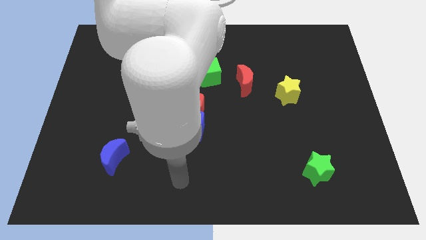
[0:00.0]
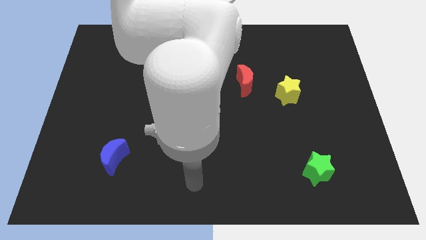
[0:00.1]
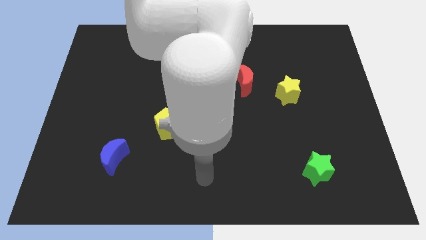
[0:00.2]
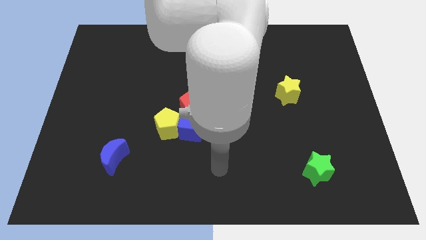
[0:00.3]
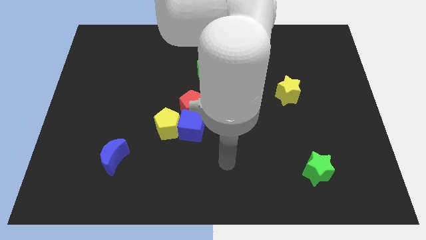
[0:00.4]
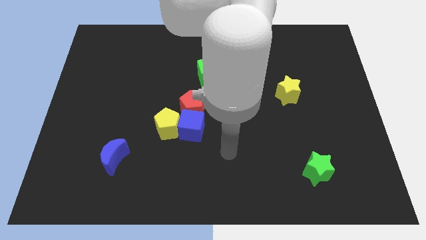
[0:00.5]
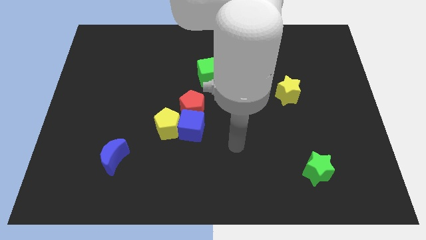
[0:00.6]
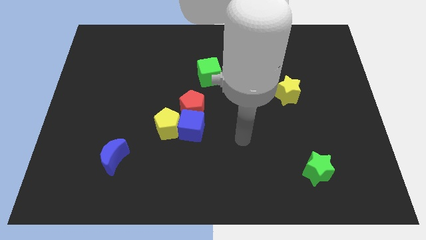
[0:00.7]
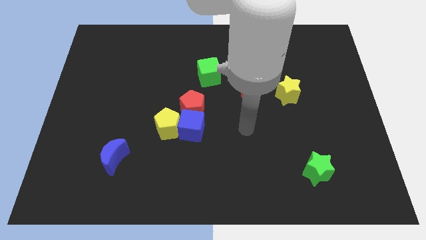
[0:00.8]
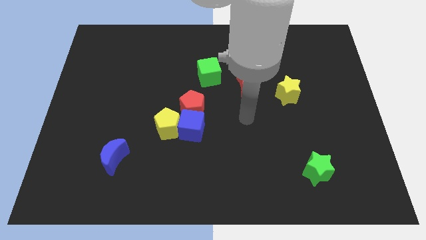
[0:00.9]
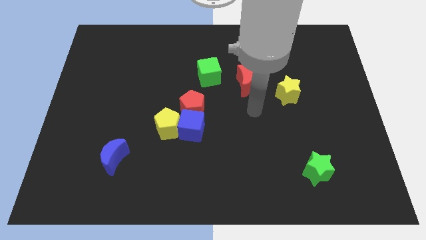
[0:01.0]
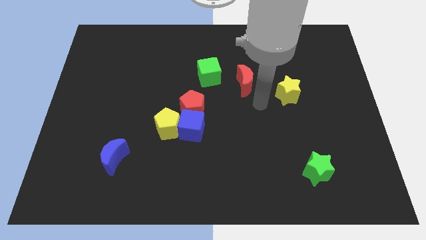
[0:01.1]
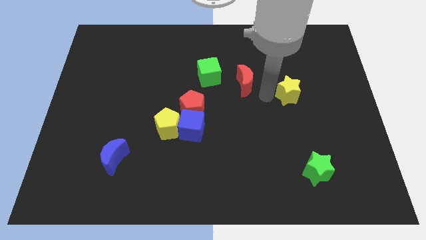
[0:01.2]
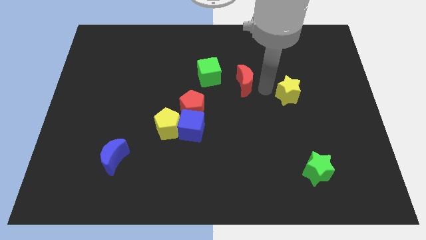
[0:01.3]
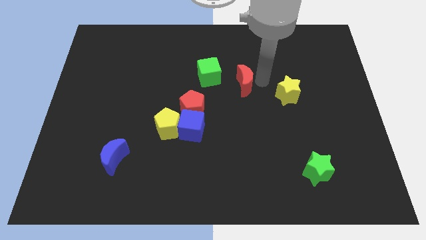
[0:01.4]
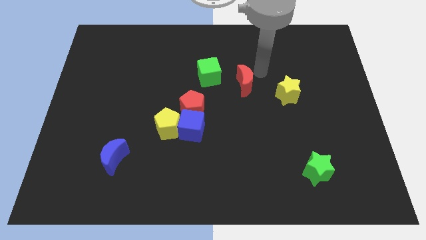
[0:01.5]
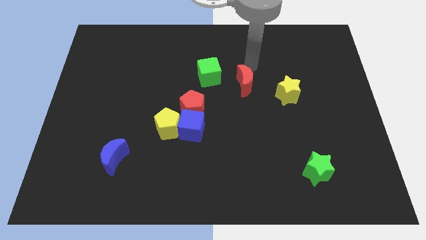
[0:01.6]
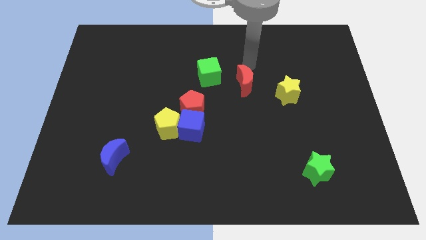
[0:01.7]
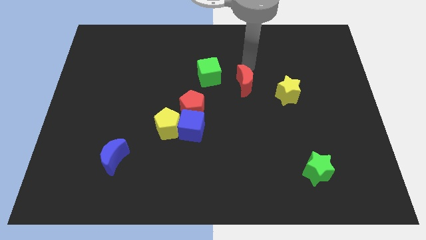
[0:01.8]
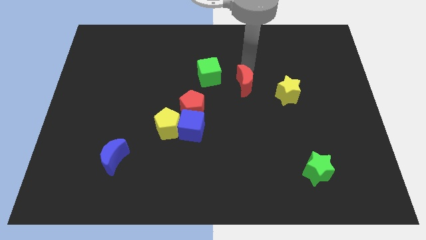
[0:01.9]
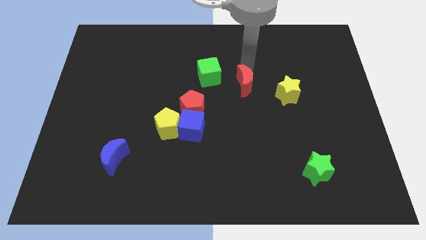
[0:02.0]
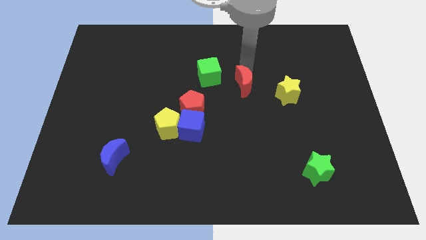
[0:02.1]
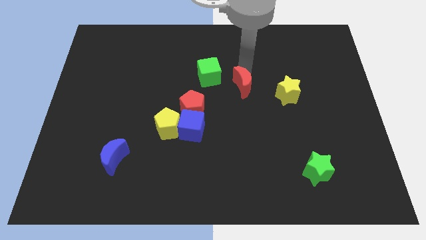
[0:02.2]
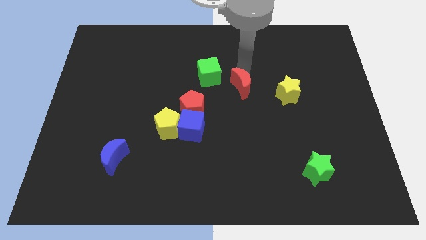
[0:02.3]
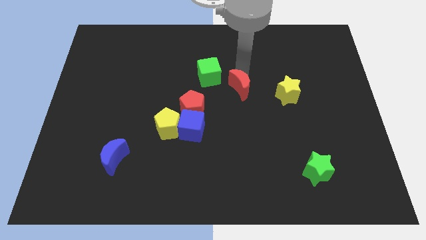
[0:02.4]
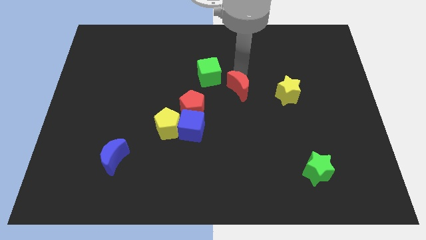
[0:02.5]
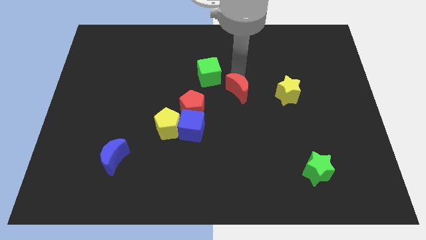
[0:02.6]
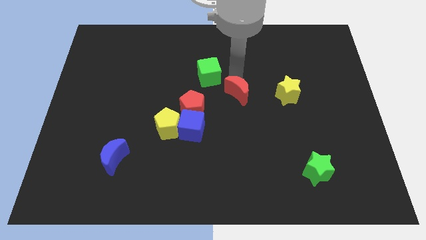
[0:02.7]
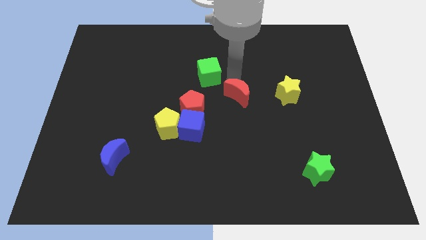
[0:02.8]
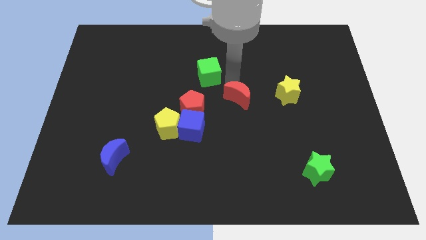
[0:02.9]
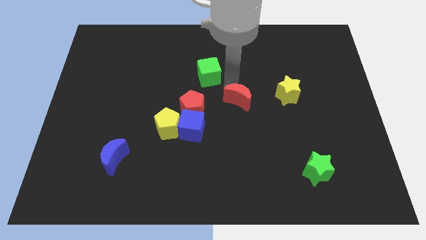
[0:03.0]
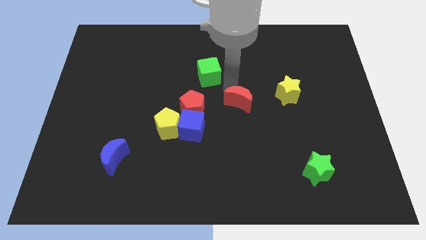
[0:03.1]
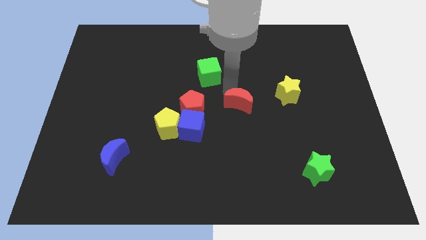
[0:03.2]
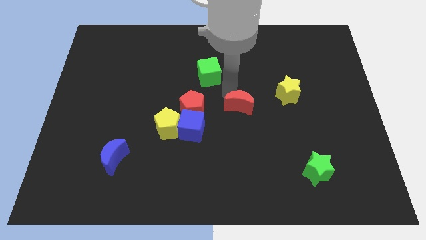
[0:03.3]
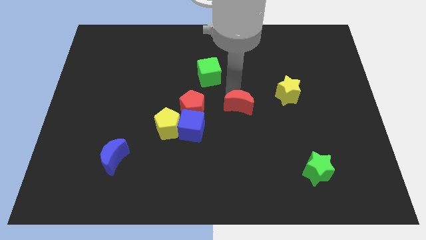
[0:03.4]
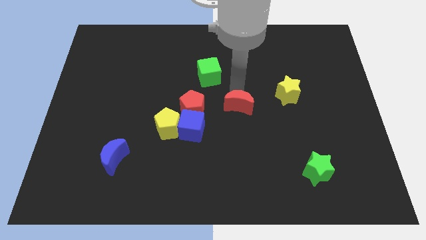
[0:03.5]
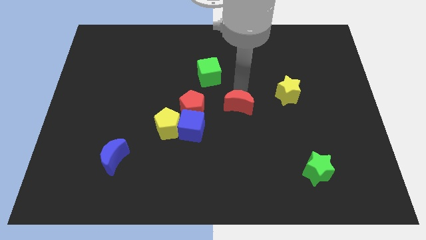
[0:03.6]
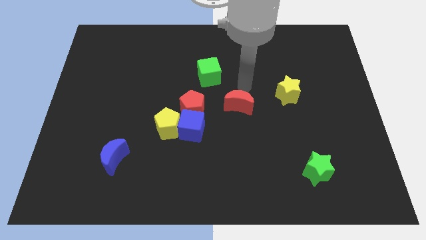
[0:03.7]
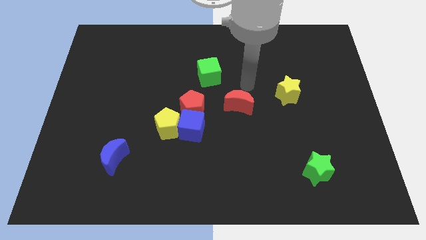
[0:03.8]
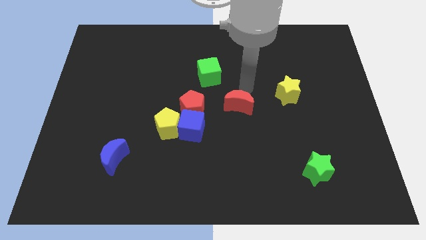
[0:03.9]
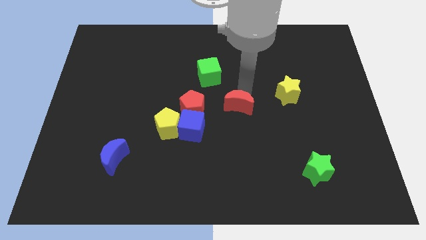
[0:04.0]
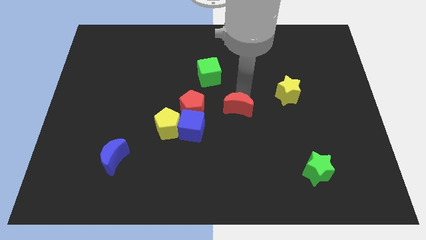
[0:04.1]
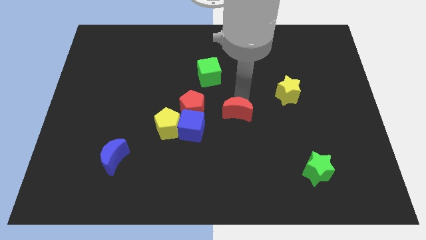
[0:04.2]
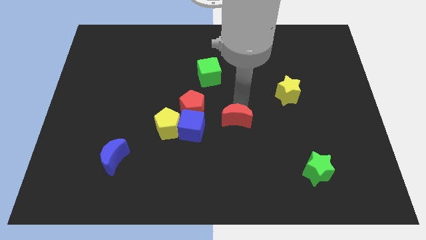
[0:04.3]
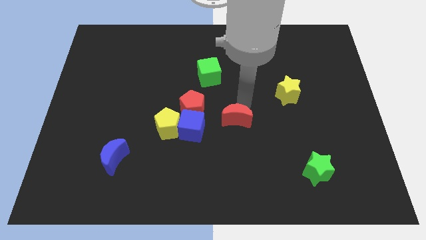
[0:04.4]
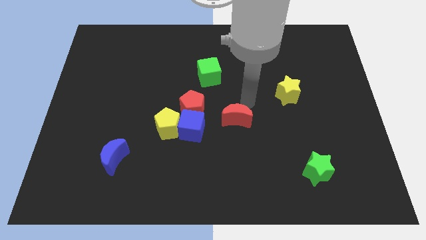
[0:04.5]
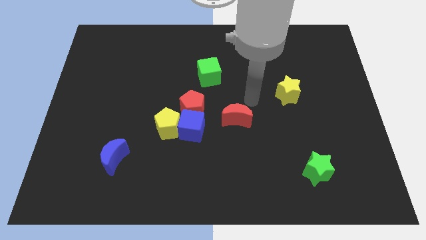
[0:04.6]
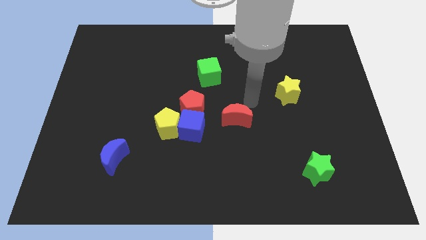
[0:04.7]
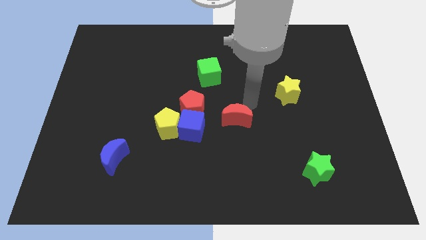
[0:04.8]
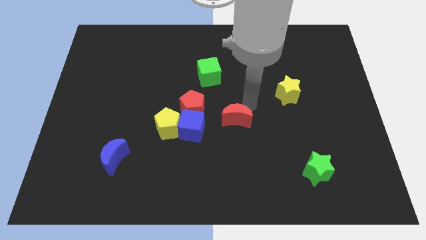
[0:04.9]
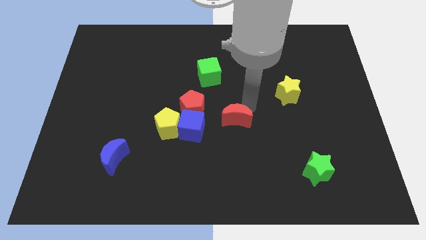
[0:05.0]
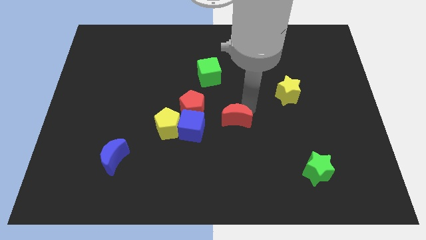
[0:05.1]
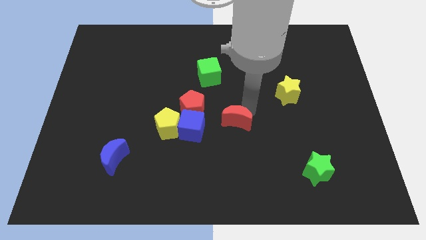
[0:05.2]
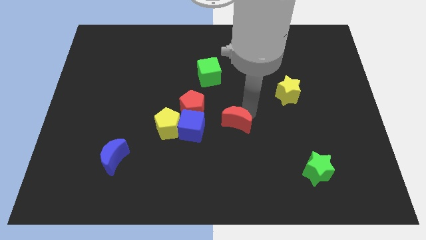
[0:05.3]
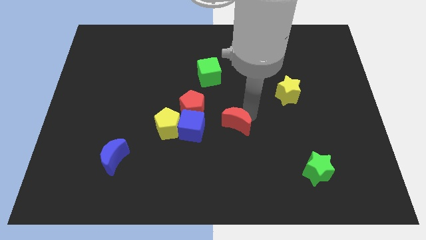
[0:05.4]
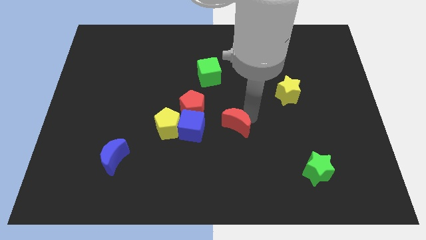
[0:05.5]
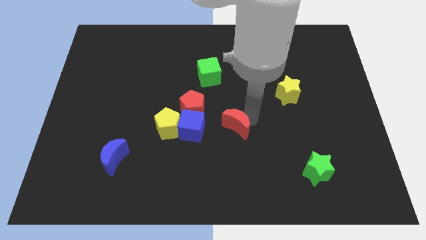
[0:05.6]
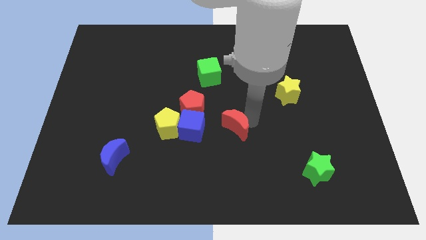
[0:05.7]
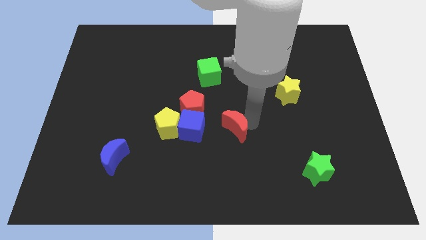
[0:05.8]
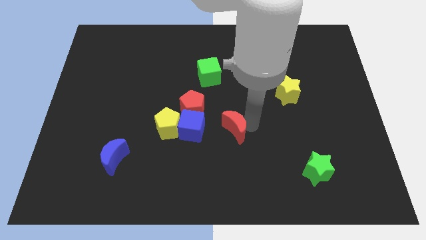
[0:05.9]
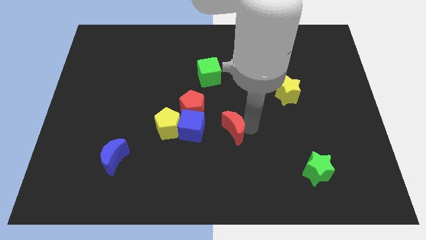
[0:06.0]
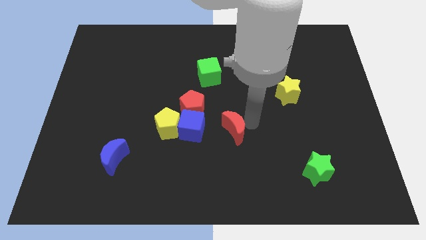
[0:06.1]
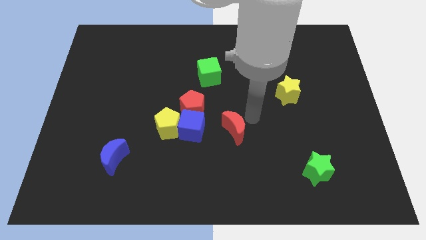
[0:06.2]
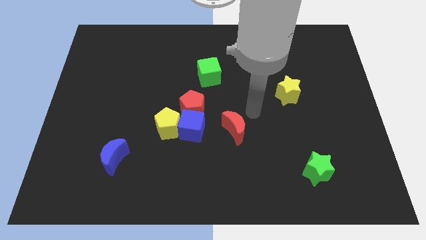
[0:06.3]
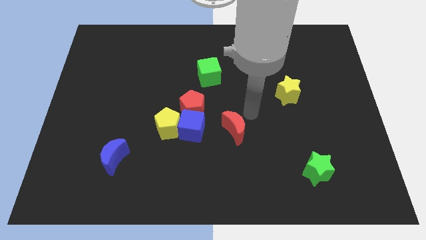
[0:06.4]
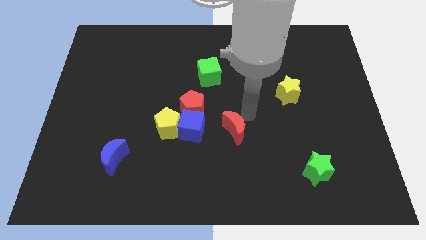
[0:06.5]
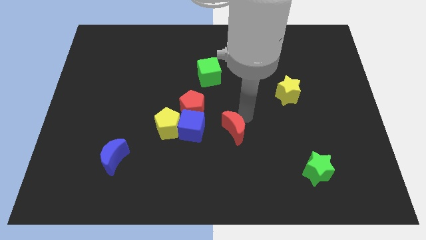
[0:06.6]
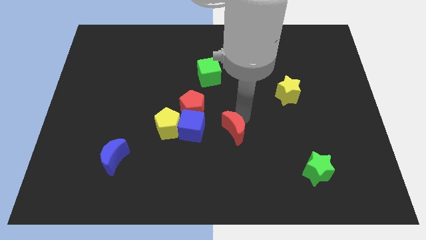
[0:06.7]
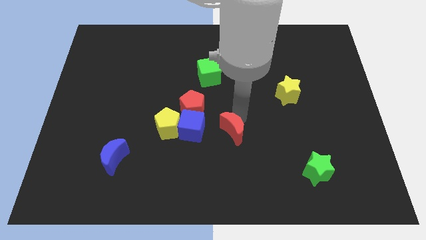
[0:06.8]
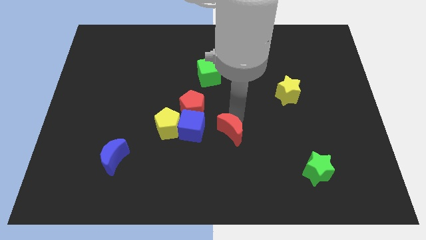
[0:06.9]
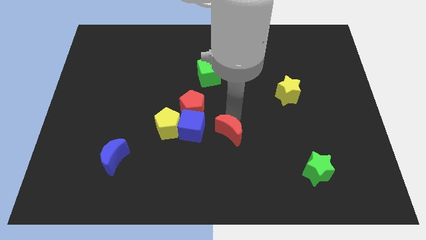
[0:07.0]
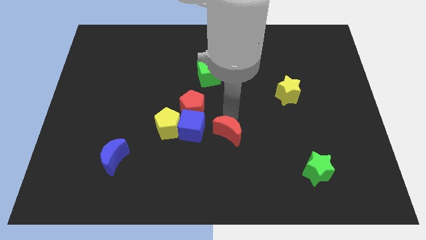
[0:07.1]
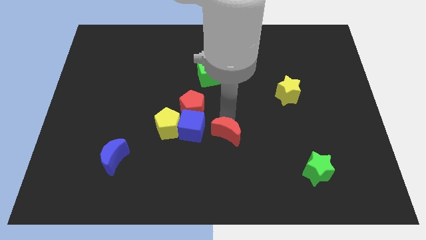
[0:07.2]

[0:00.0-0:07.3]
move the red moon diagonally down and to the right of the blue cube
